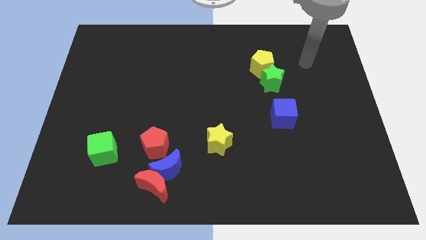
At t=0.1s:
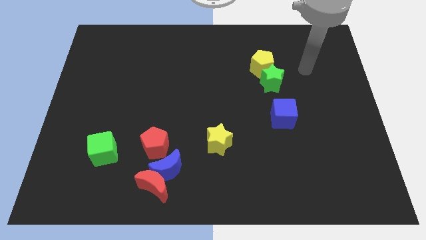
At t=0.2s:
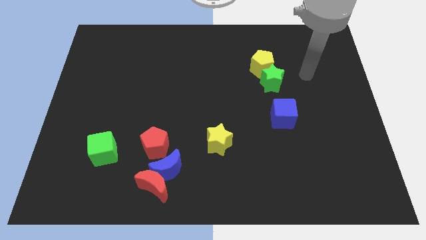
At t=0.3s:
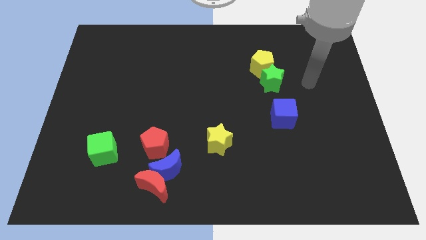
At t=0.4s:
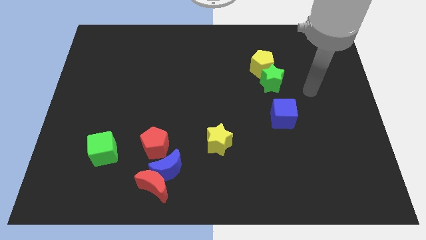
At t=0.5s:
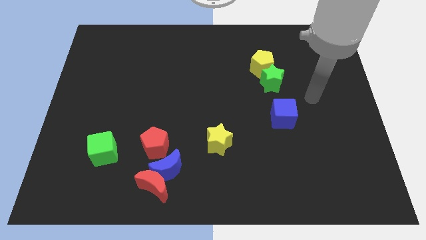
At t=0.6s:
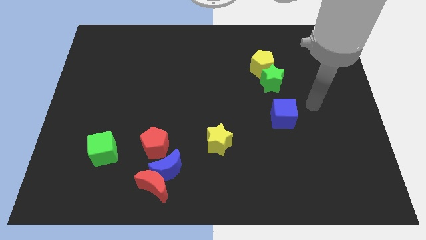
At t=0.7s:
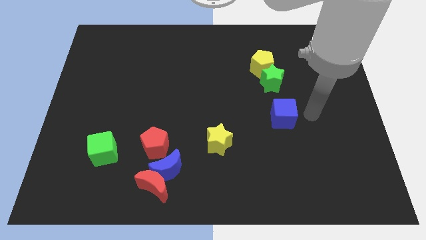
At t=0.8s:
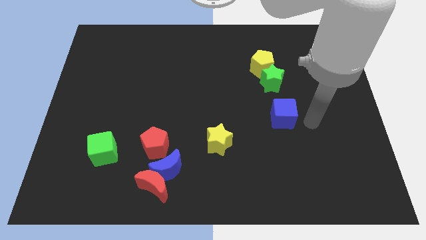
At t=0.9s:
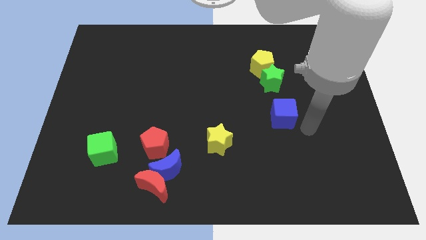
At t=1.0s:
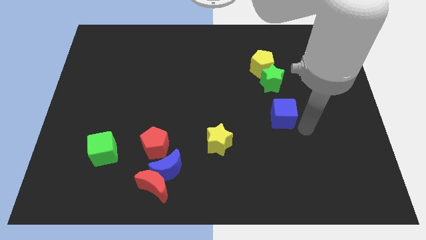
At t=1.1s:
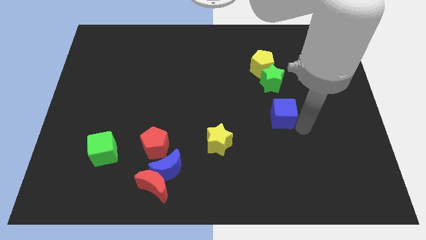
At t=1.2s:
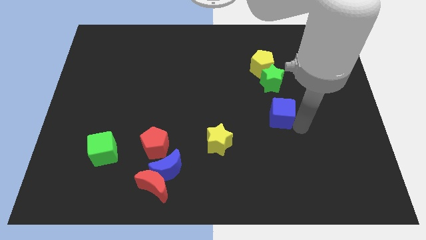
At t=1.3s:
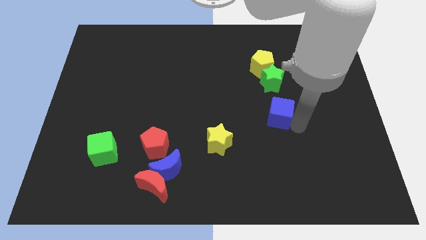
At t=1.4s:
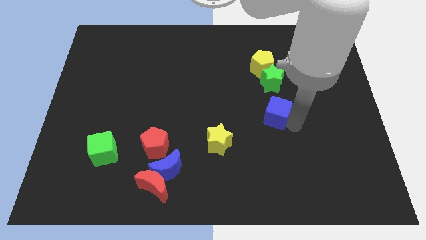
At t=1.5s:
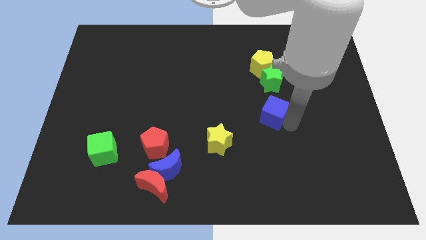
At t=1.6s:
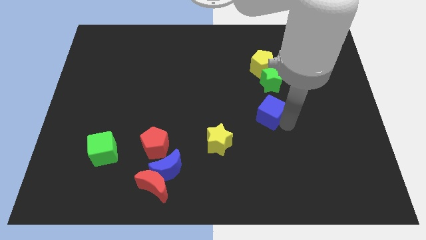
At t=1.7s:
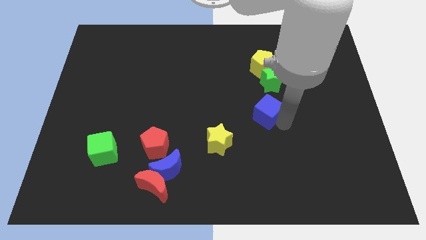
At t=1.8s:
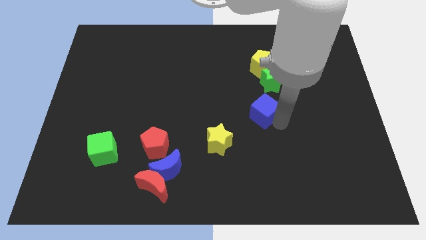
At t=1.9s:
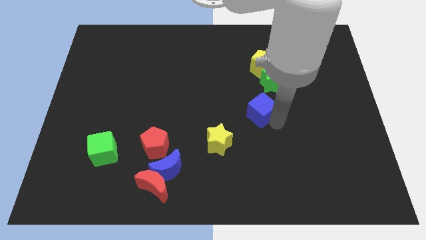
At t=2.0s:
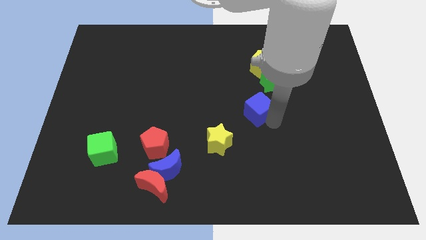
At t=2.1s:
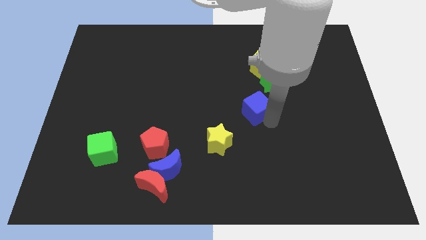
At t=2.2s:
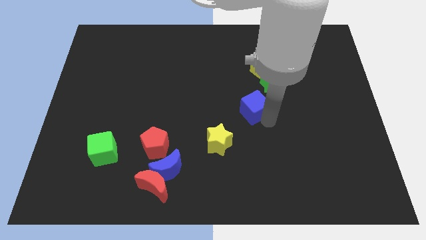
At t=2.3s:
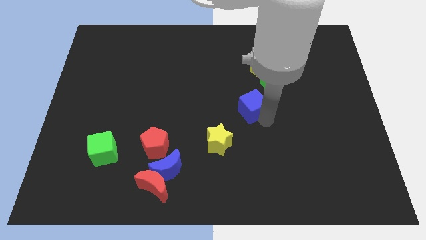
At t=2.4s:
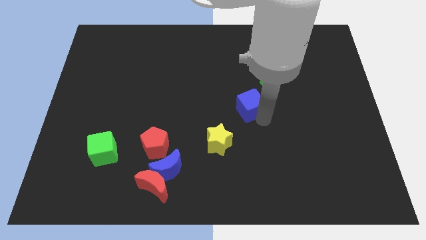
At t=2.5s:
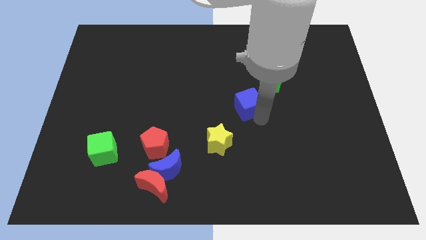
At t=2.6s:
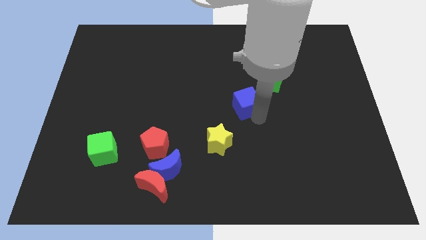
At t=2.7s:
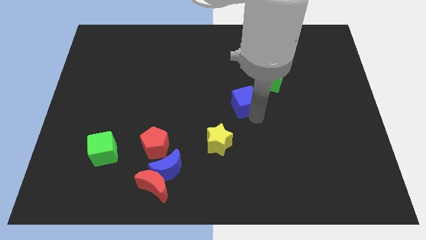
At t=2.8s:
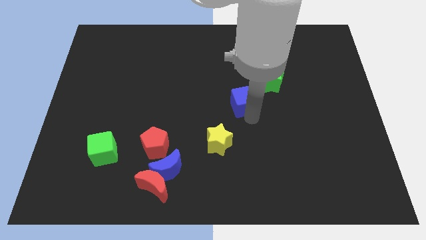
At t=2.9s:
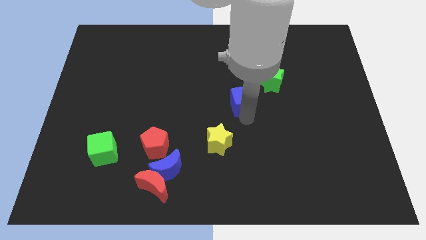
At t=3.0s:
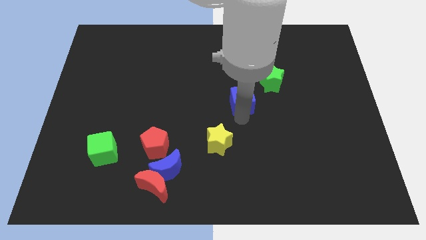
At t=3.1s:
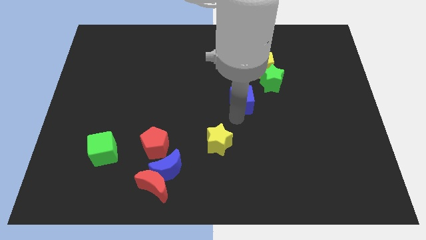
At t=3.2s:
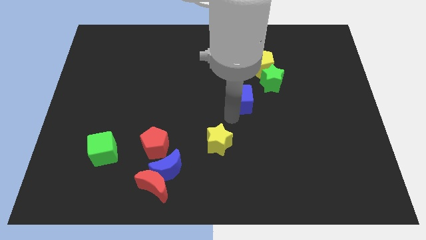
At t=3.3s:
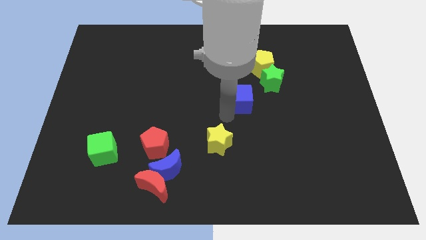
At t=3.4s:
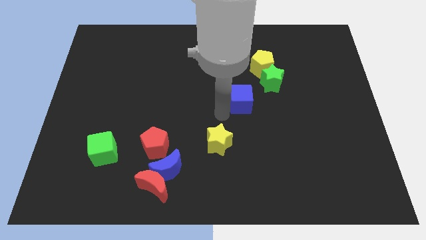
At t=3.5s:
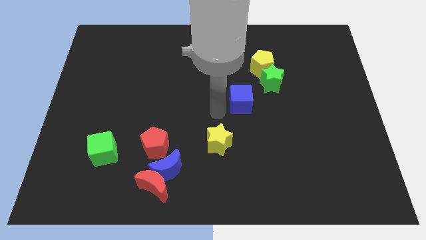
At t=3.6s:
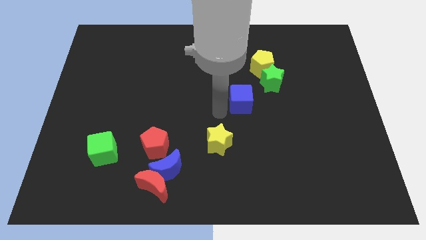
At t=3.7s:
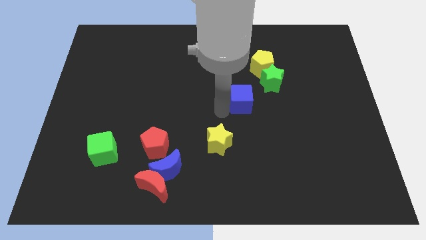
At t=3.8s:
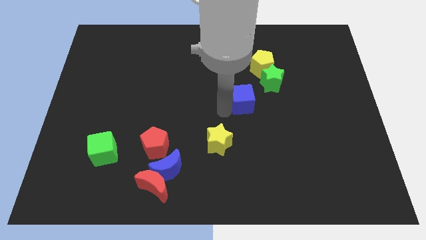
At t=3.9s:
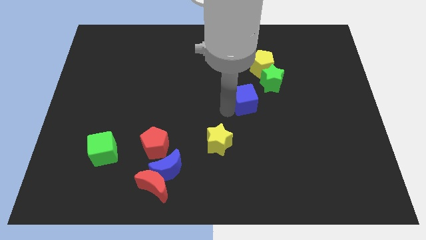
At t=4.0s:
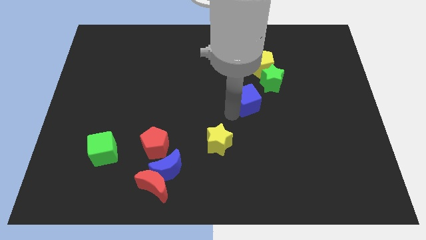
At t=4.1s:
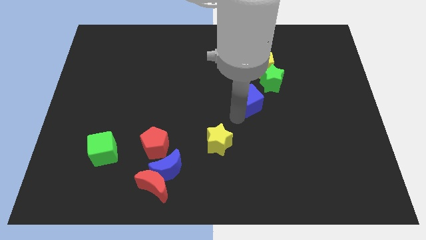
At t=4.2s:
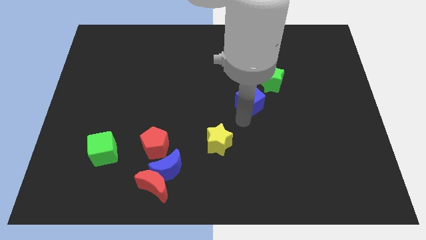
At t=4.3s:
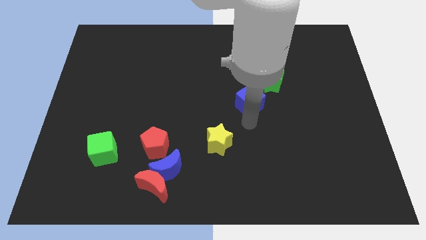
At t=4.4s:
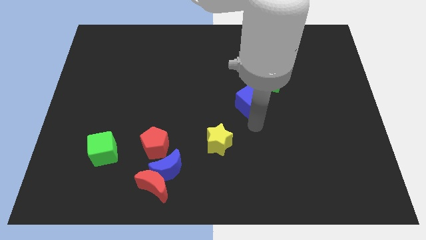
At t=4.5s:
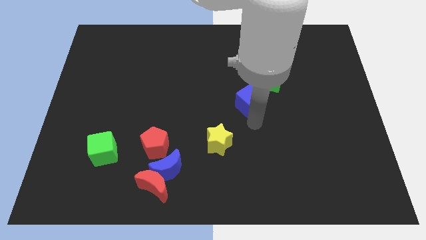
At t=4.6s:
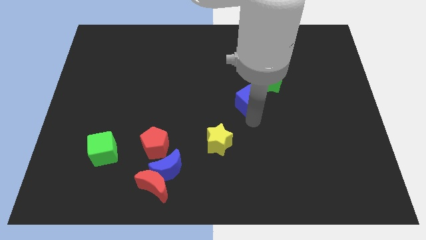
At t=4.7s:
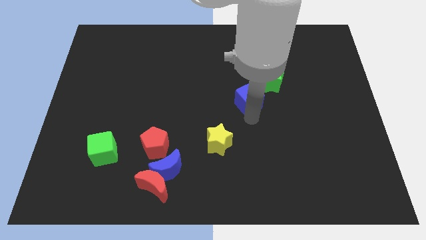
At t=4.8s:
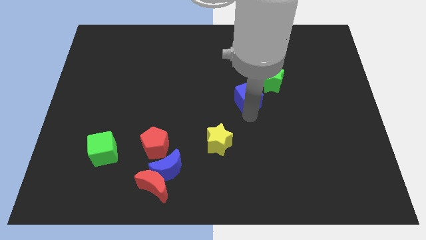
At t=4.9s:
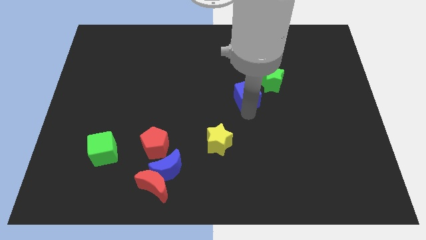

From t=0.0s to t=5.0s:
move the blue cube diagonally down and to the left of the yellow pentagon

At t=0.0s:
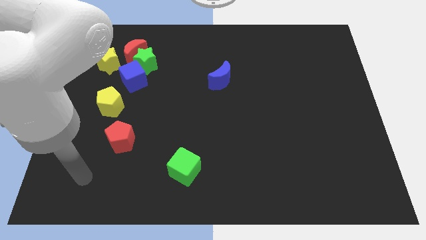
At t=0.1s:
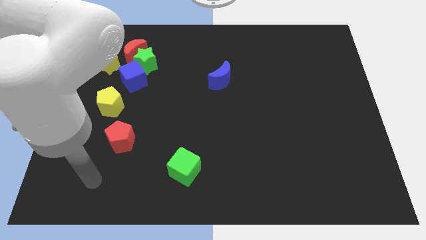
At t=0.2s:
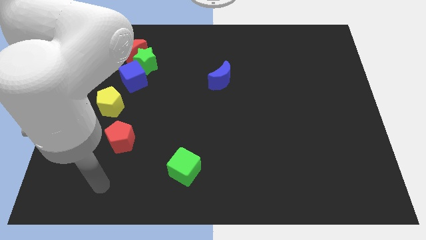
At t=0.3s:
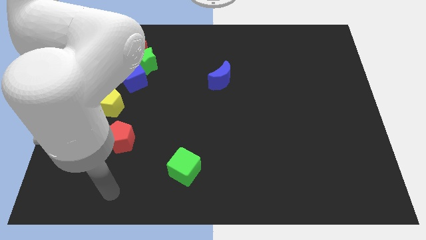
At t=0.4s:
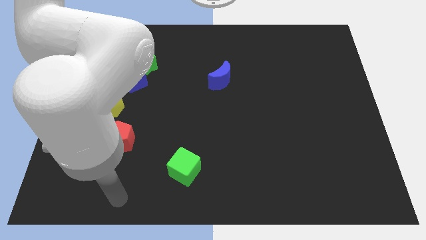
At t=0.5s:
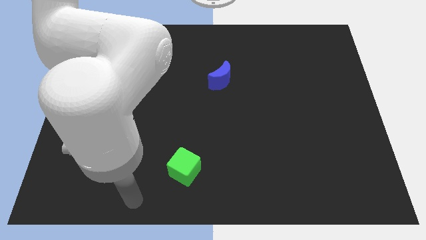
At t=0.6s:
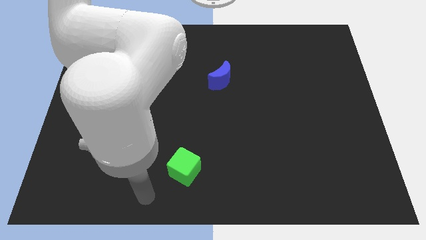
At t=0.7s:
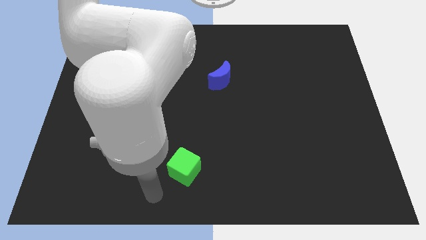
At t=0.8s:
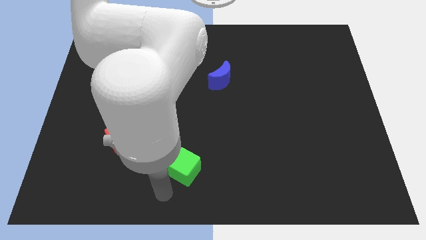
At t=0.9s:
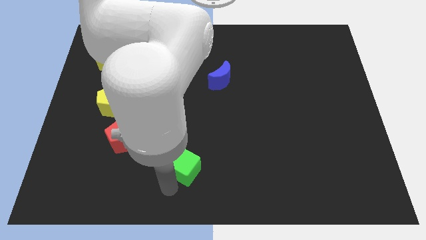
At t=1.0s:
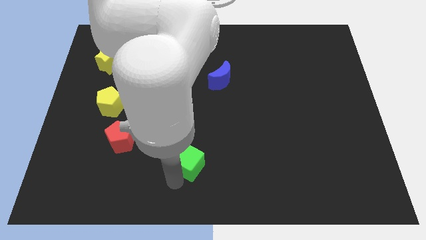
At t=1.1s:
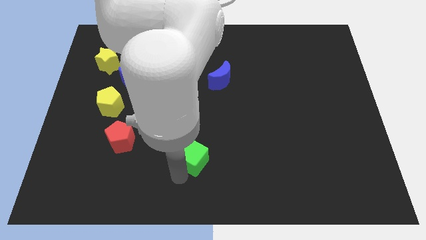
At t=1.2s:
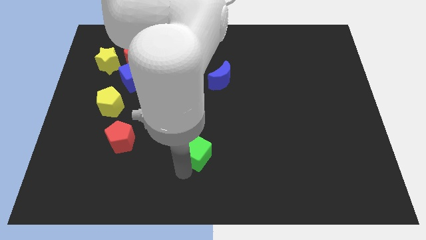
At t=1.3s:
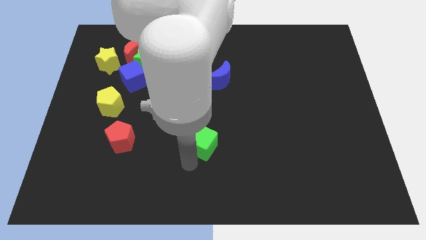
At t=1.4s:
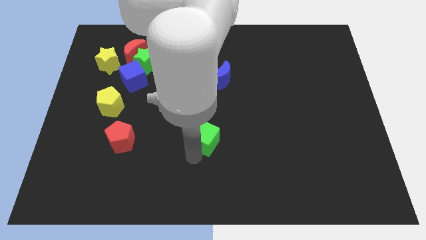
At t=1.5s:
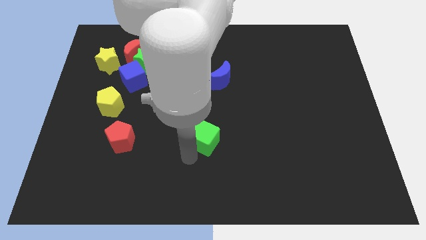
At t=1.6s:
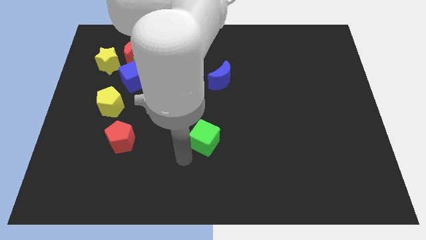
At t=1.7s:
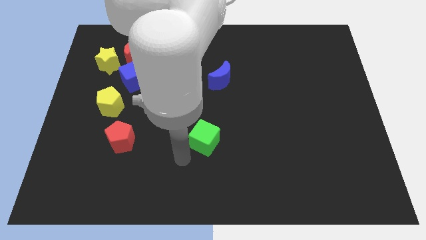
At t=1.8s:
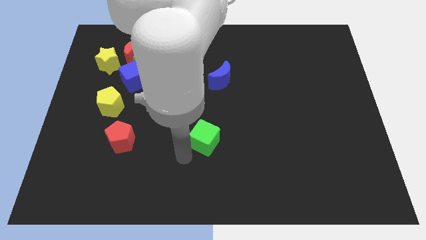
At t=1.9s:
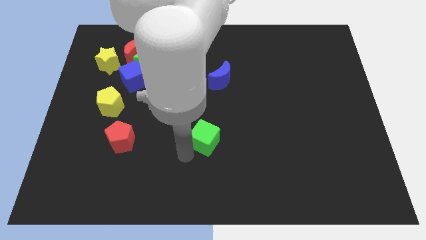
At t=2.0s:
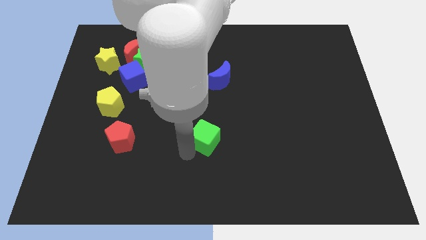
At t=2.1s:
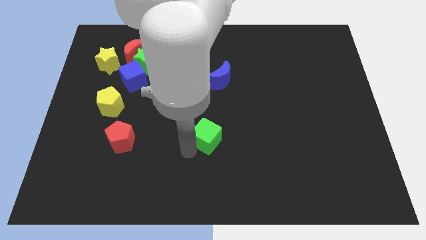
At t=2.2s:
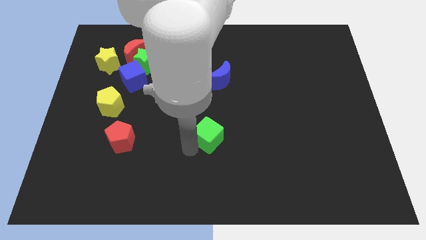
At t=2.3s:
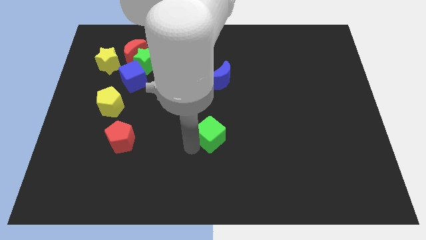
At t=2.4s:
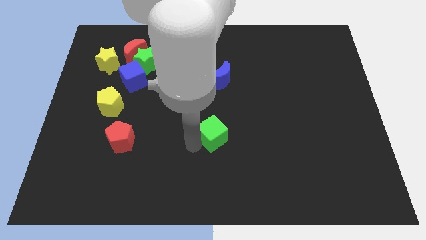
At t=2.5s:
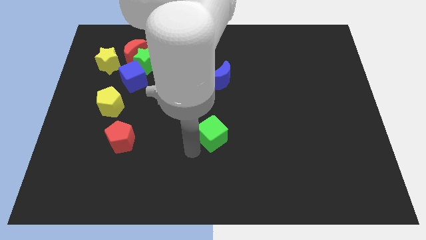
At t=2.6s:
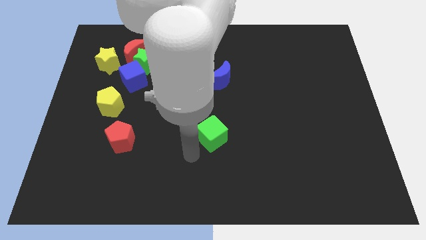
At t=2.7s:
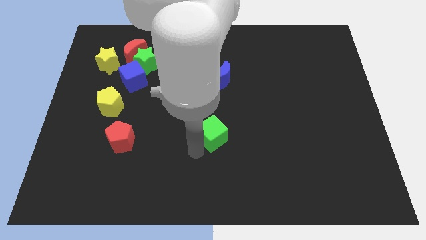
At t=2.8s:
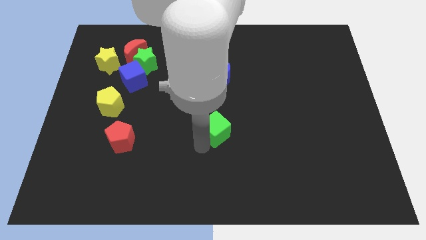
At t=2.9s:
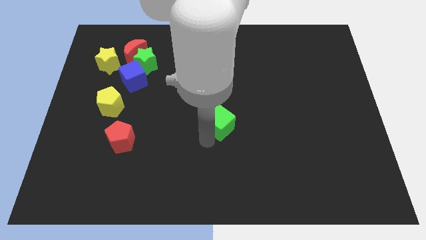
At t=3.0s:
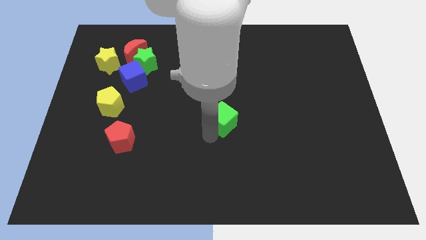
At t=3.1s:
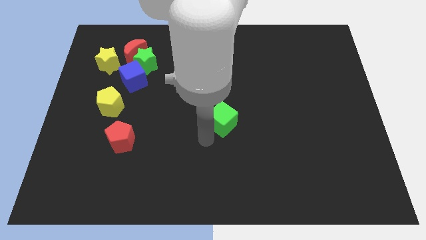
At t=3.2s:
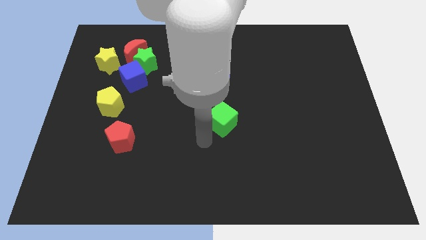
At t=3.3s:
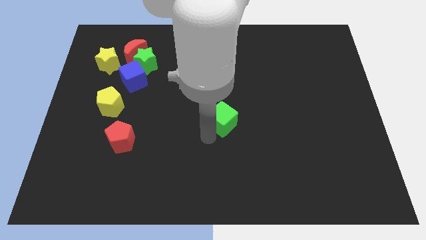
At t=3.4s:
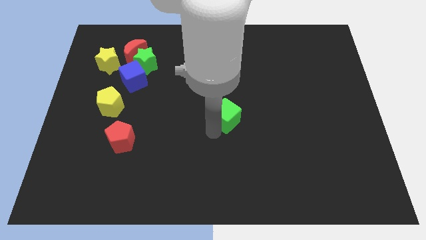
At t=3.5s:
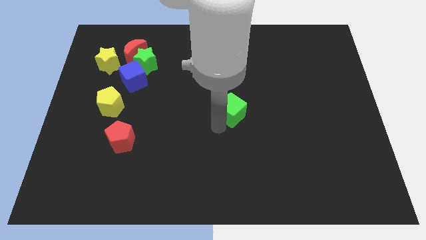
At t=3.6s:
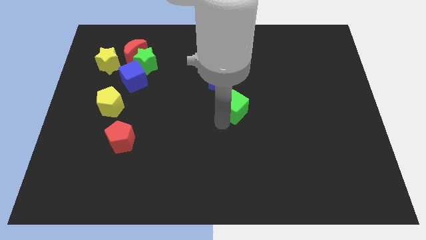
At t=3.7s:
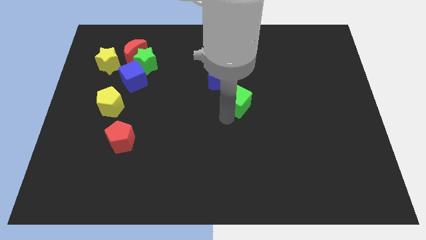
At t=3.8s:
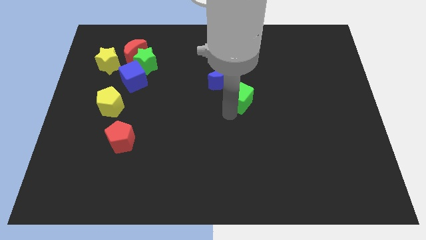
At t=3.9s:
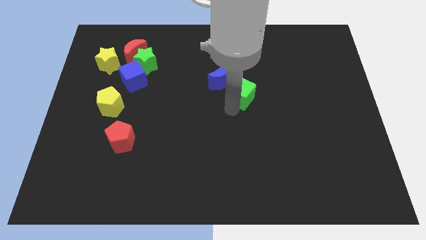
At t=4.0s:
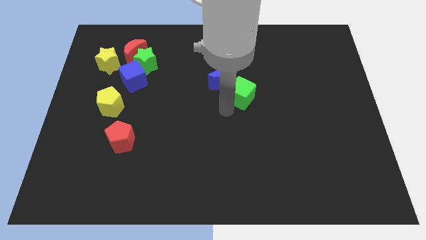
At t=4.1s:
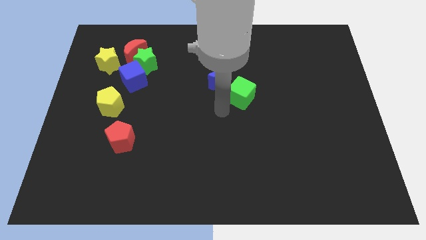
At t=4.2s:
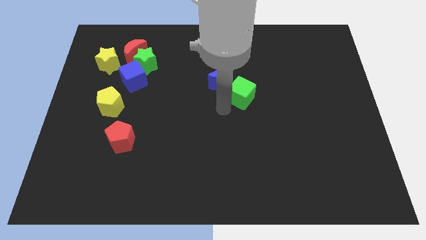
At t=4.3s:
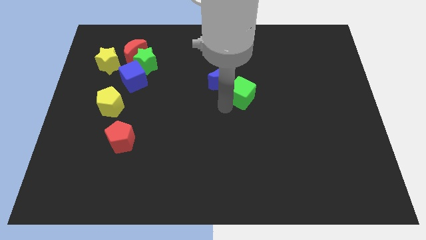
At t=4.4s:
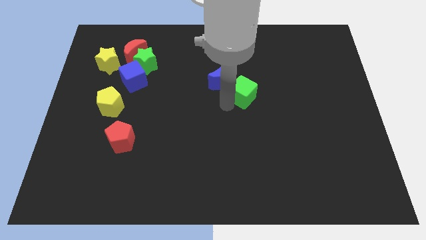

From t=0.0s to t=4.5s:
put the green cube right of the blue moon
